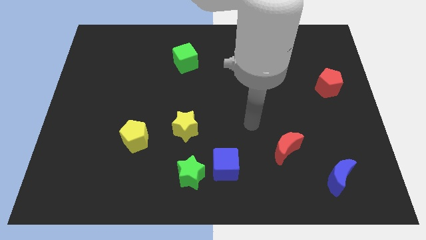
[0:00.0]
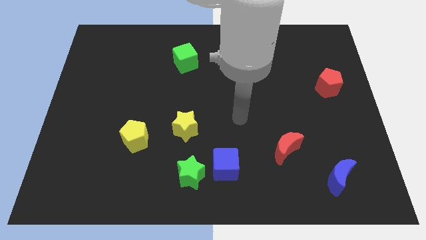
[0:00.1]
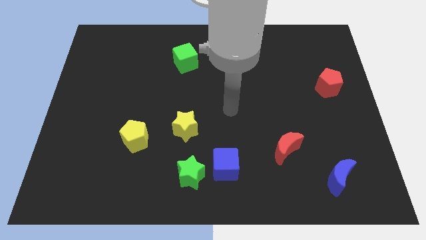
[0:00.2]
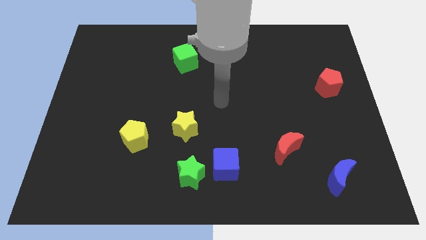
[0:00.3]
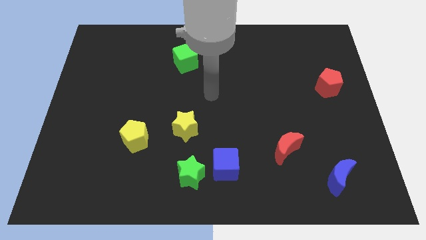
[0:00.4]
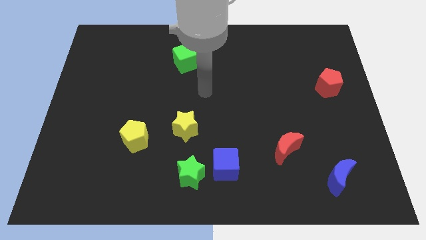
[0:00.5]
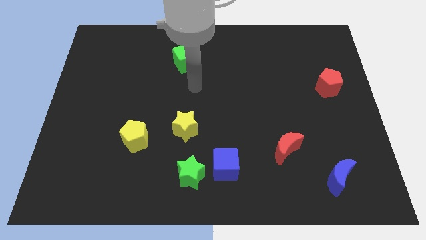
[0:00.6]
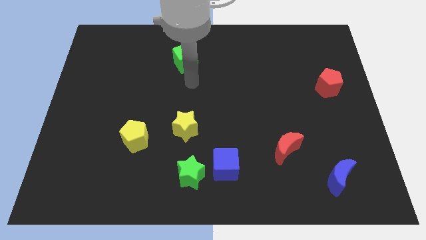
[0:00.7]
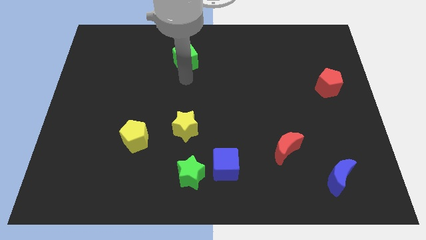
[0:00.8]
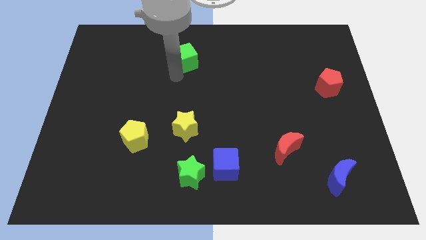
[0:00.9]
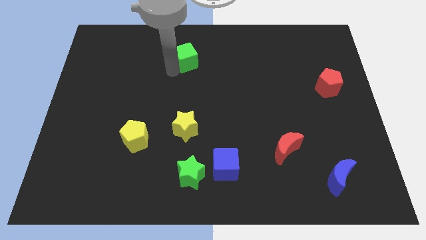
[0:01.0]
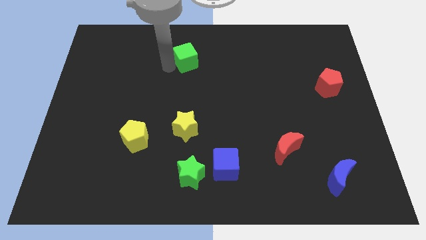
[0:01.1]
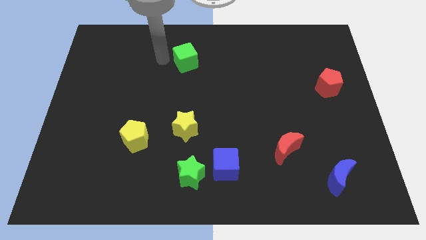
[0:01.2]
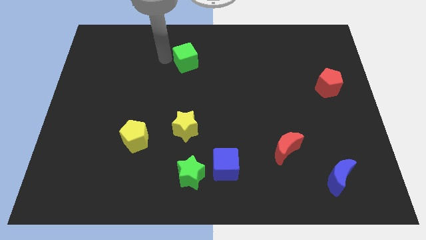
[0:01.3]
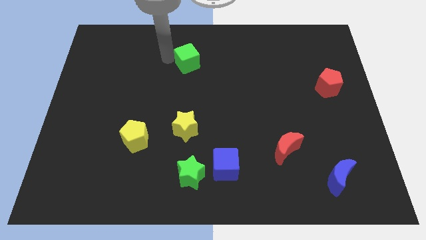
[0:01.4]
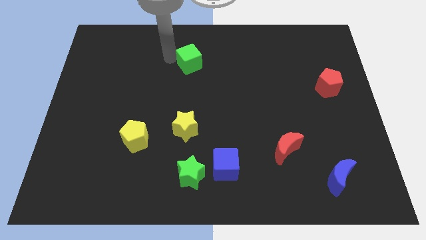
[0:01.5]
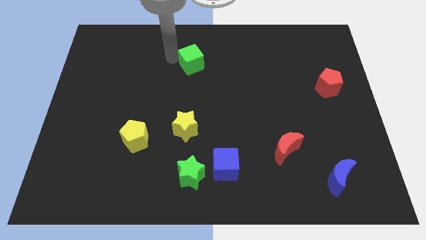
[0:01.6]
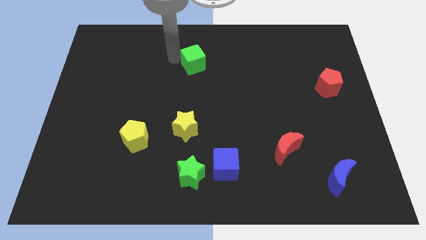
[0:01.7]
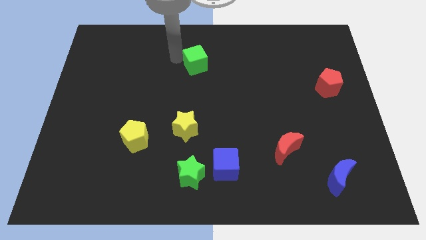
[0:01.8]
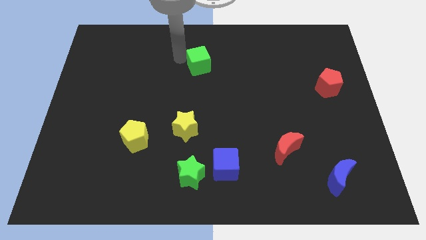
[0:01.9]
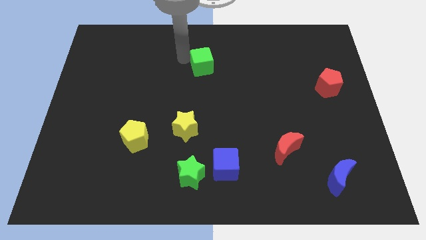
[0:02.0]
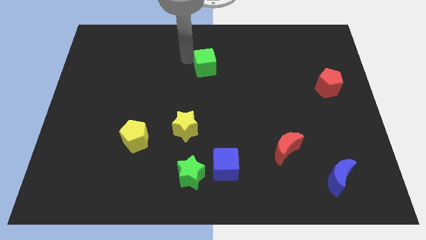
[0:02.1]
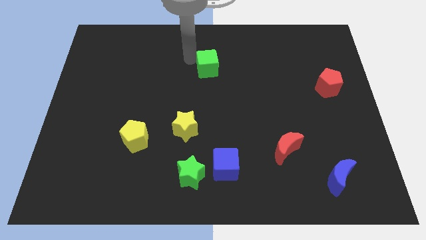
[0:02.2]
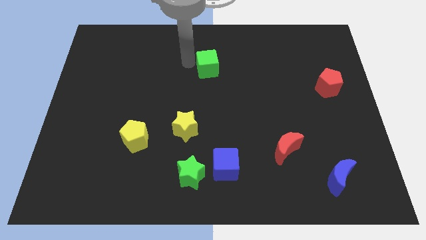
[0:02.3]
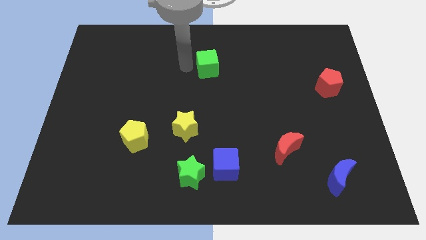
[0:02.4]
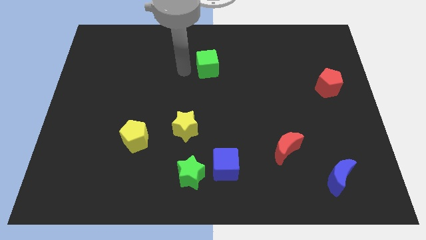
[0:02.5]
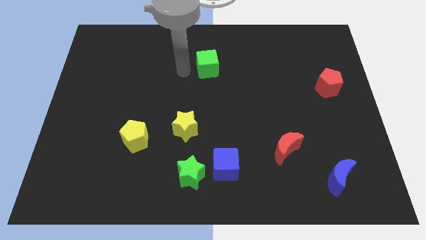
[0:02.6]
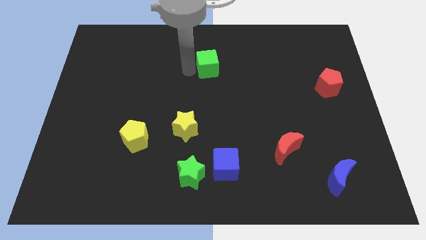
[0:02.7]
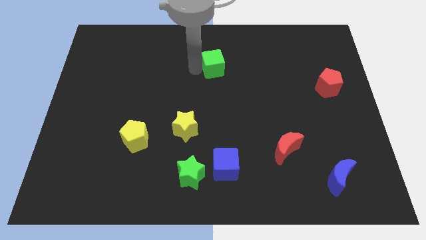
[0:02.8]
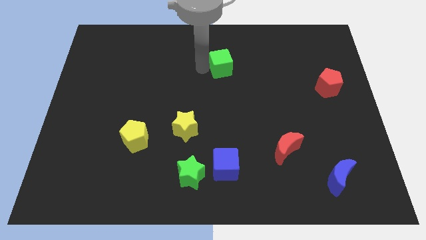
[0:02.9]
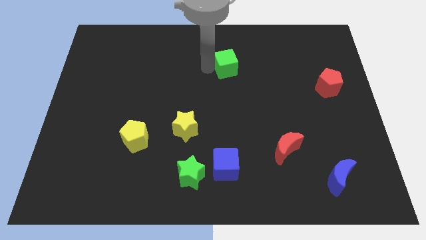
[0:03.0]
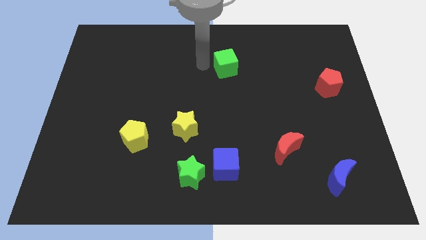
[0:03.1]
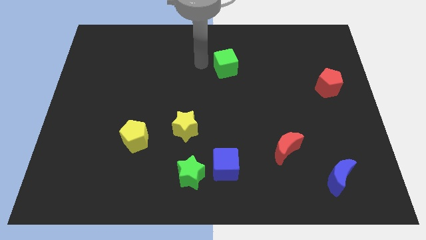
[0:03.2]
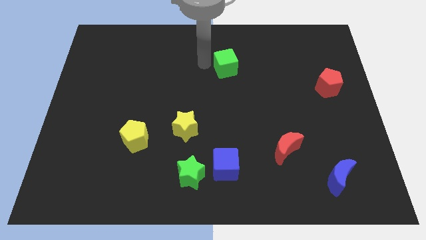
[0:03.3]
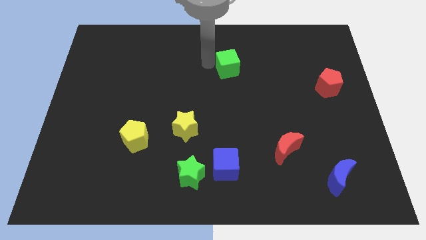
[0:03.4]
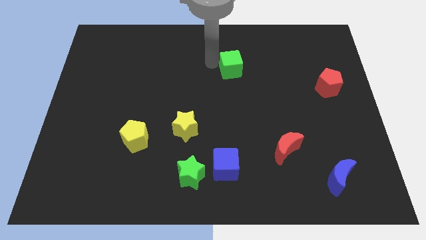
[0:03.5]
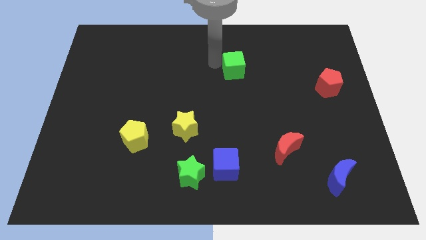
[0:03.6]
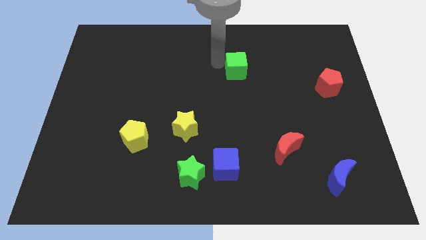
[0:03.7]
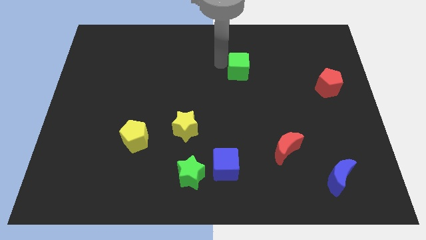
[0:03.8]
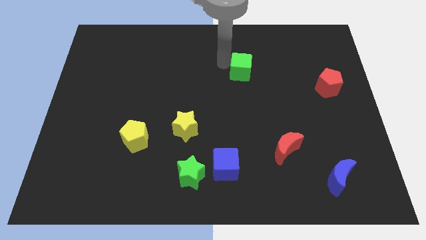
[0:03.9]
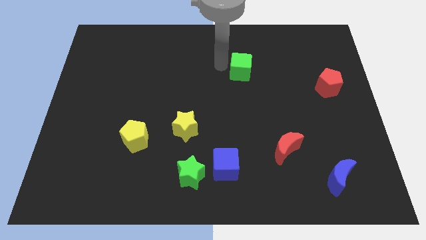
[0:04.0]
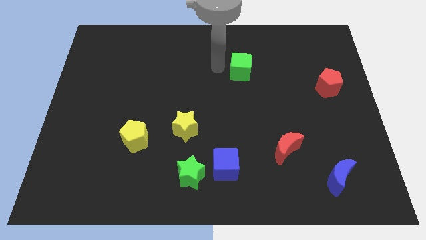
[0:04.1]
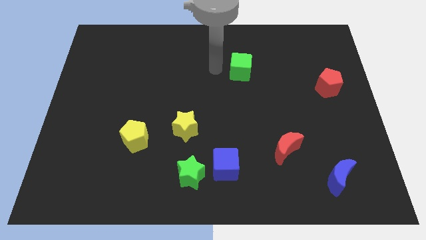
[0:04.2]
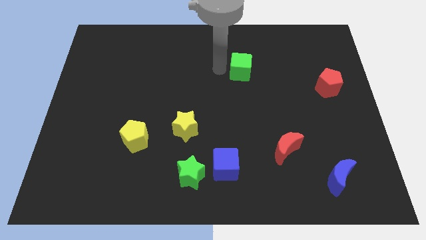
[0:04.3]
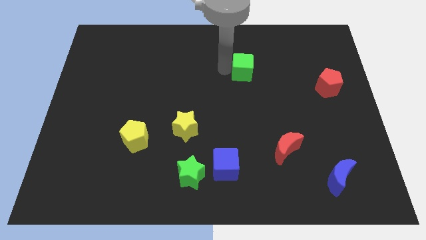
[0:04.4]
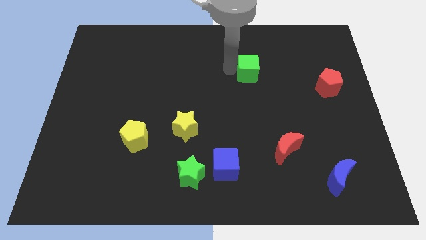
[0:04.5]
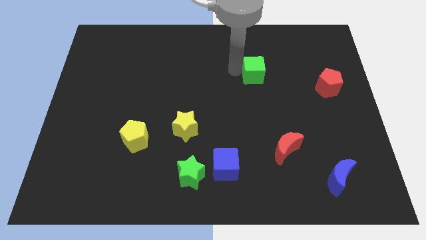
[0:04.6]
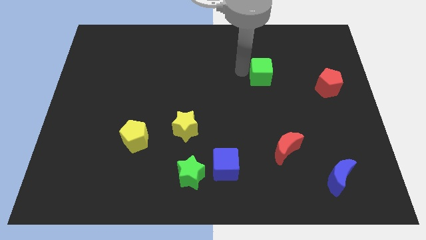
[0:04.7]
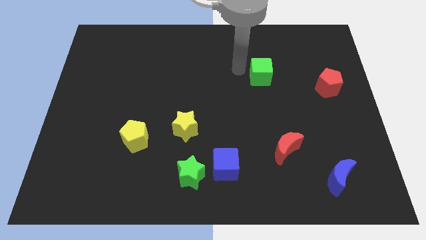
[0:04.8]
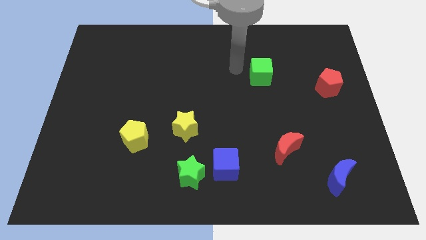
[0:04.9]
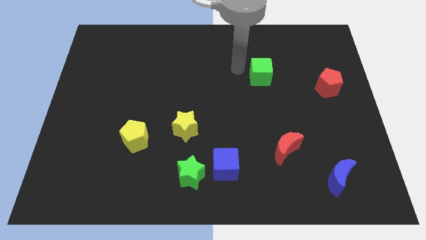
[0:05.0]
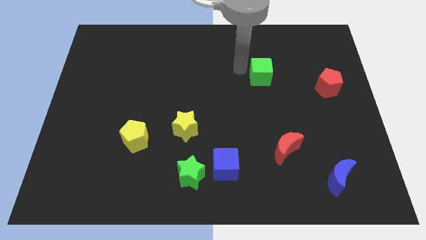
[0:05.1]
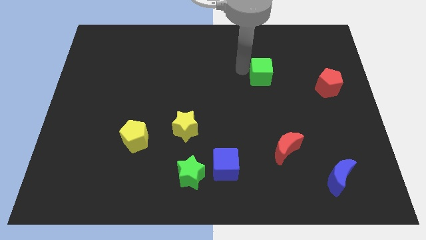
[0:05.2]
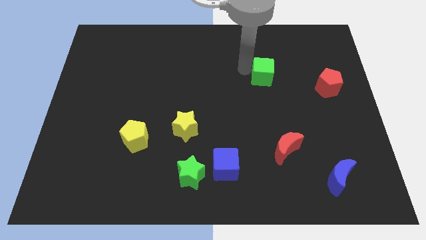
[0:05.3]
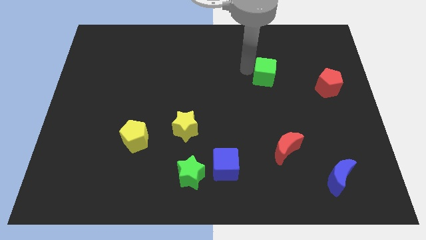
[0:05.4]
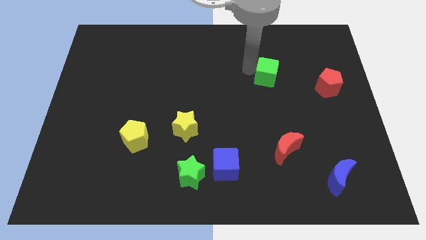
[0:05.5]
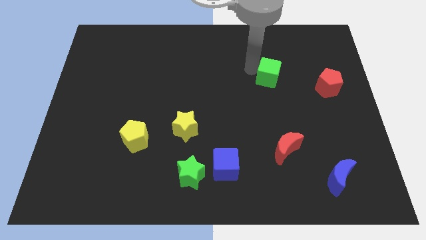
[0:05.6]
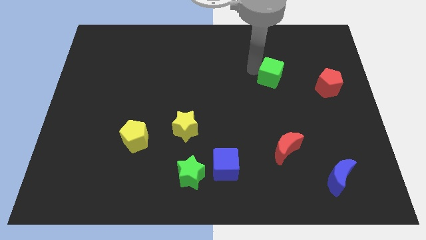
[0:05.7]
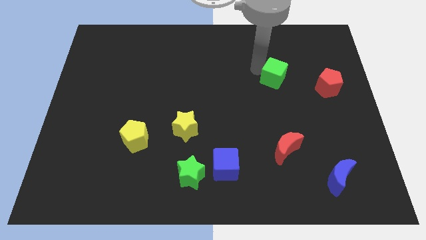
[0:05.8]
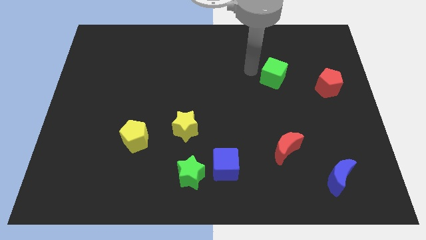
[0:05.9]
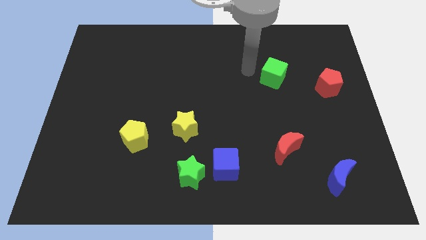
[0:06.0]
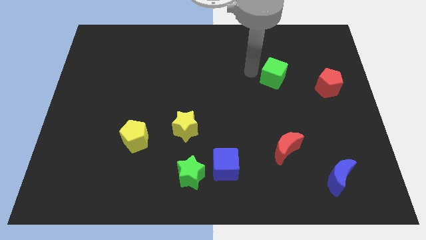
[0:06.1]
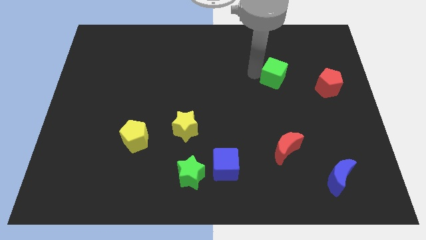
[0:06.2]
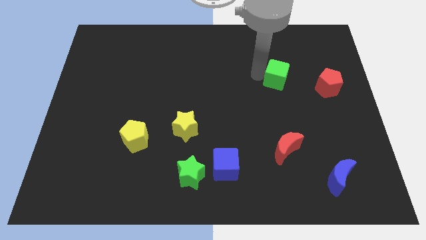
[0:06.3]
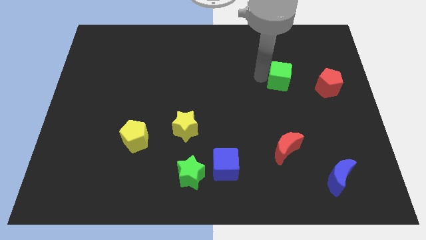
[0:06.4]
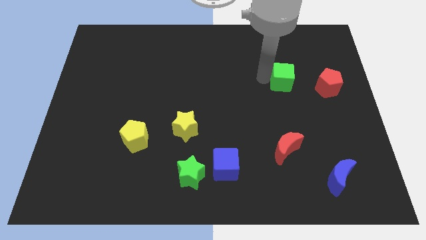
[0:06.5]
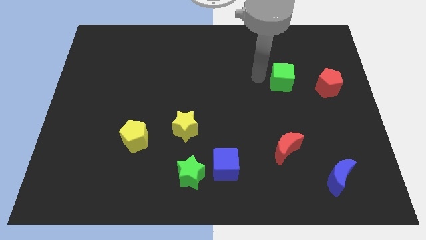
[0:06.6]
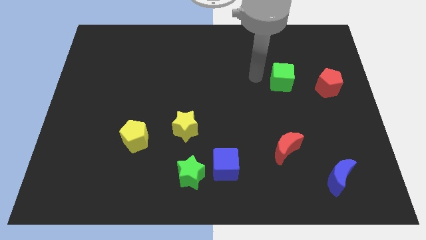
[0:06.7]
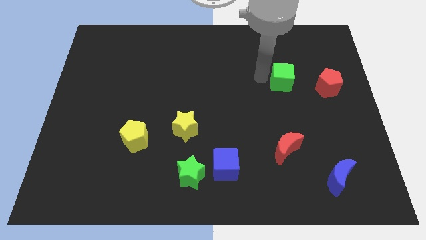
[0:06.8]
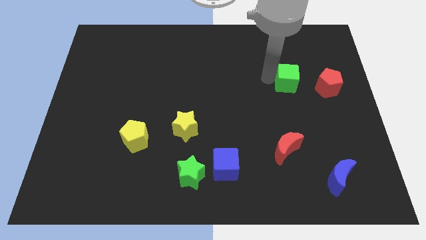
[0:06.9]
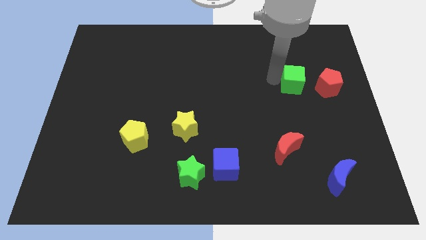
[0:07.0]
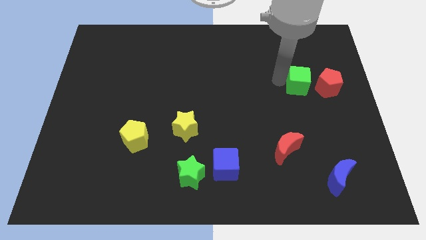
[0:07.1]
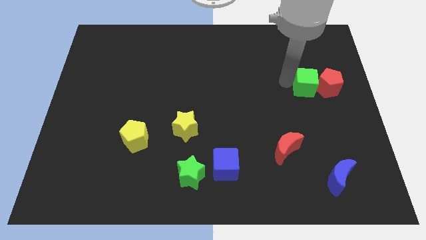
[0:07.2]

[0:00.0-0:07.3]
slide the green cube towards the red pentagon
